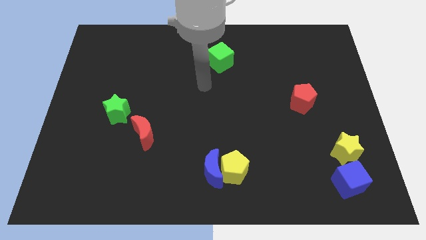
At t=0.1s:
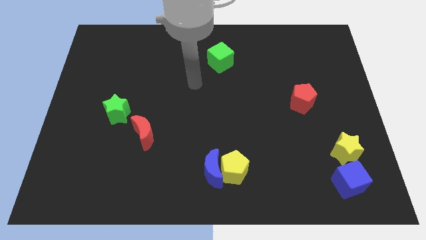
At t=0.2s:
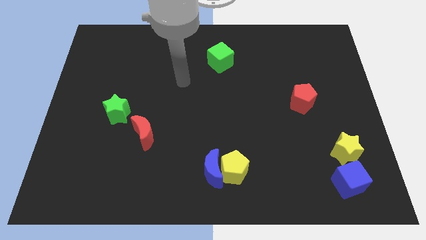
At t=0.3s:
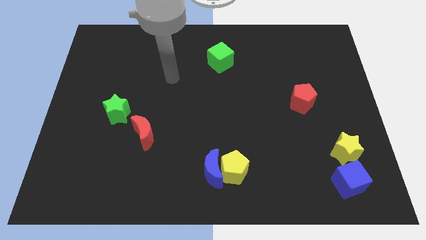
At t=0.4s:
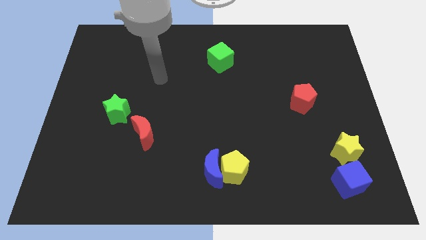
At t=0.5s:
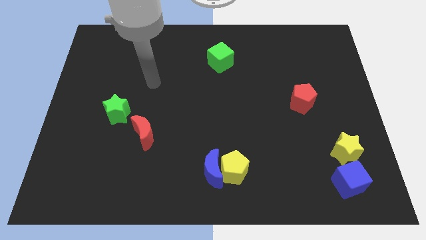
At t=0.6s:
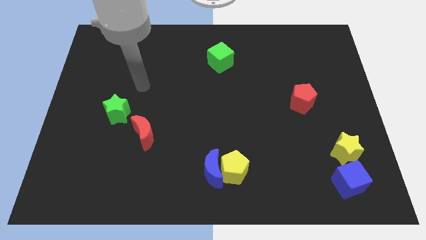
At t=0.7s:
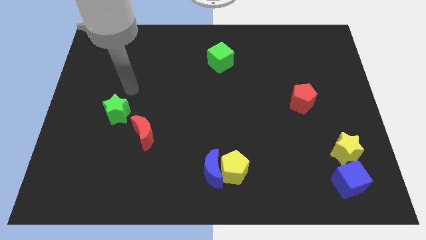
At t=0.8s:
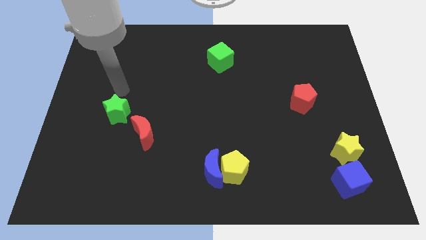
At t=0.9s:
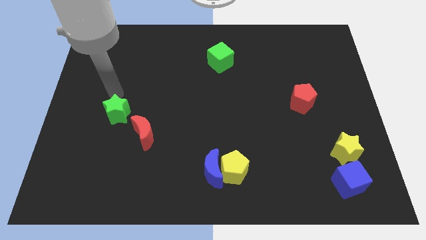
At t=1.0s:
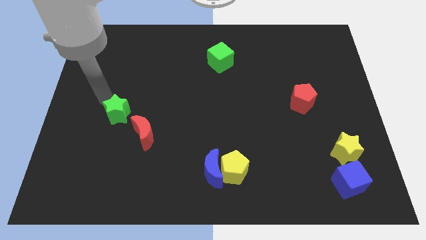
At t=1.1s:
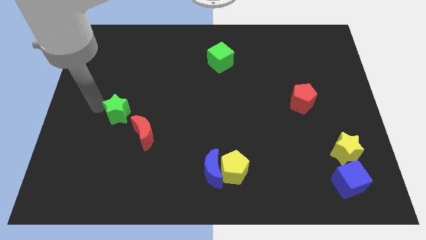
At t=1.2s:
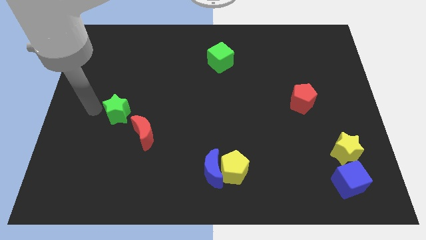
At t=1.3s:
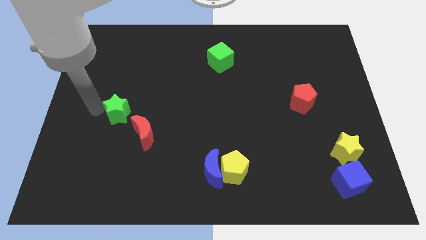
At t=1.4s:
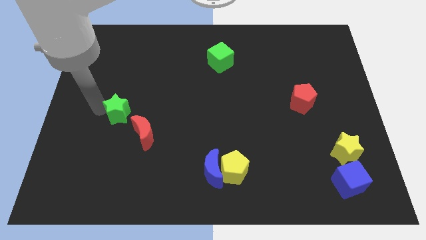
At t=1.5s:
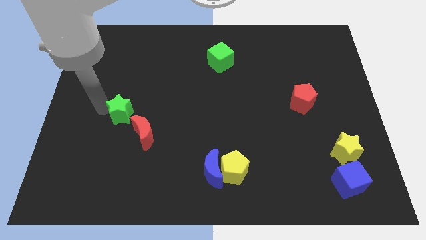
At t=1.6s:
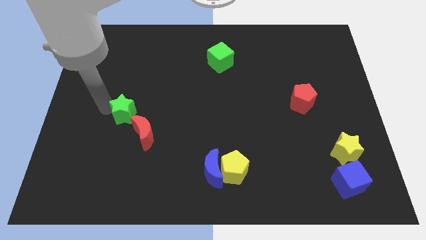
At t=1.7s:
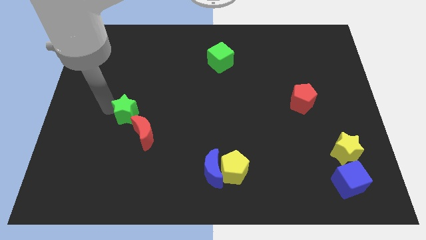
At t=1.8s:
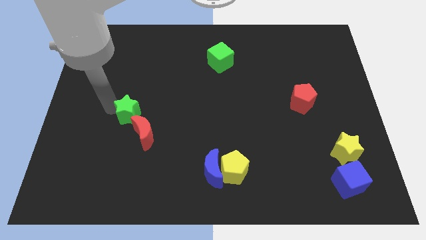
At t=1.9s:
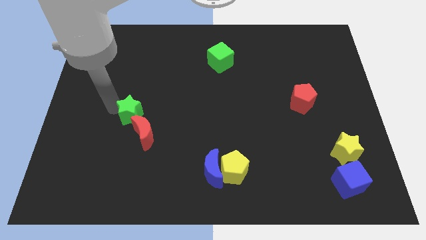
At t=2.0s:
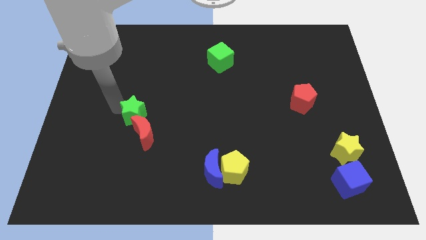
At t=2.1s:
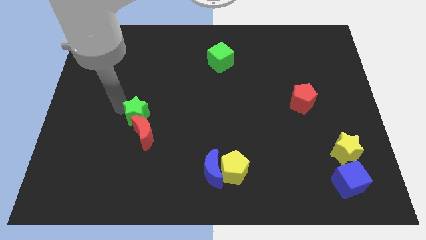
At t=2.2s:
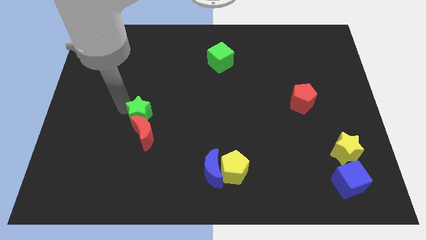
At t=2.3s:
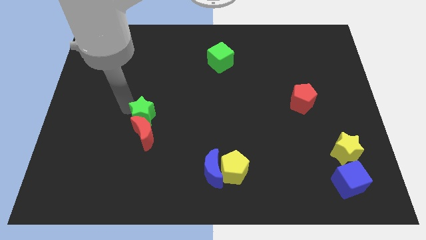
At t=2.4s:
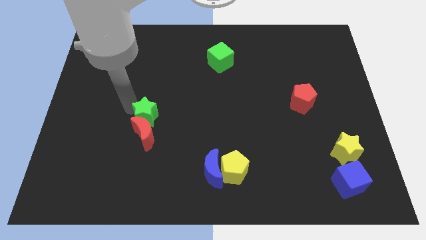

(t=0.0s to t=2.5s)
slide the green star somewhat to the right

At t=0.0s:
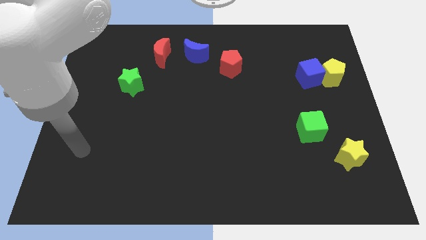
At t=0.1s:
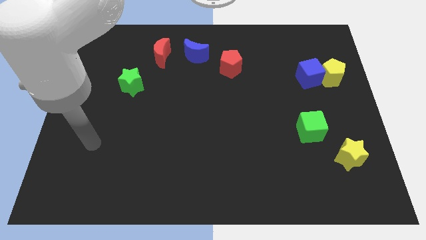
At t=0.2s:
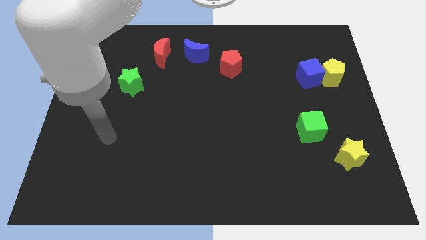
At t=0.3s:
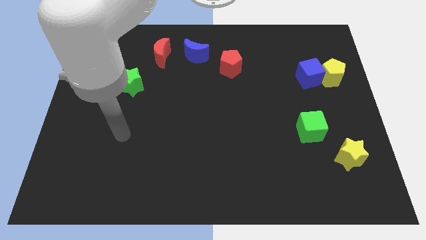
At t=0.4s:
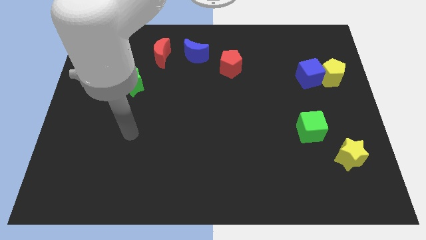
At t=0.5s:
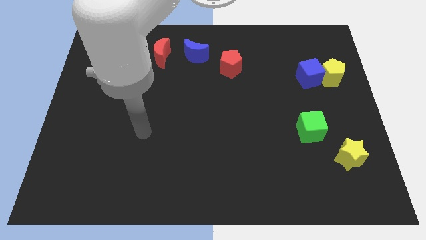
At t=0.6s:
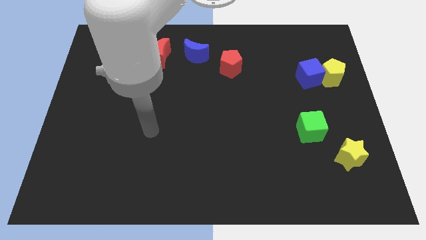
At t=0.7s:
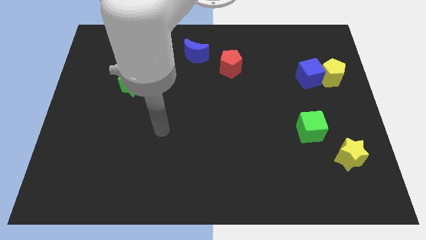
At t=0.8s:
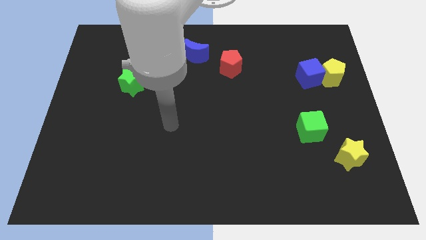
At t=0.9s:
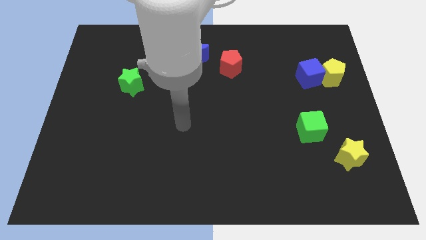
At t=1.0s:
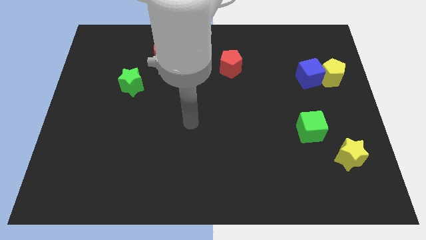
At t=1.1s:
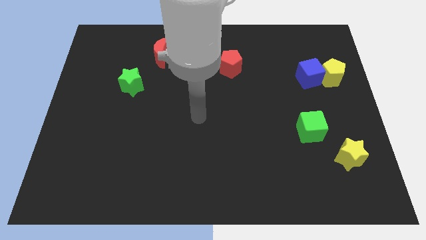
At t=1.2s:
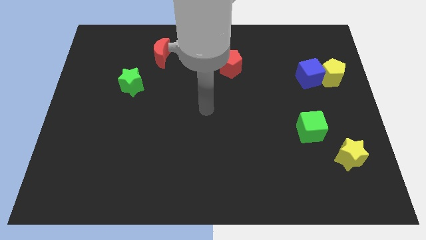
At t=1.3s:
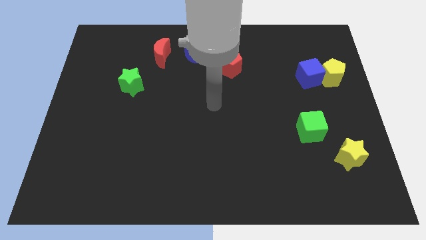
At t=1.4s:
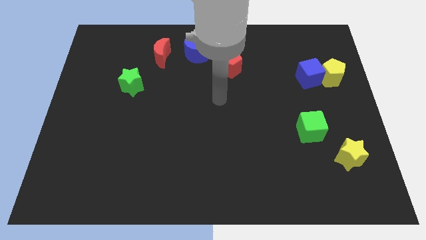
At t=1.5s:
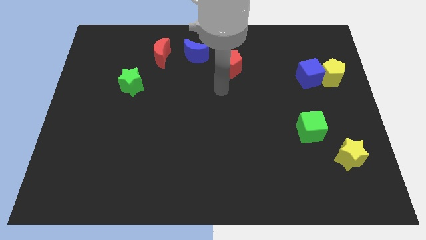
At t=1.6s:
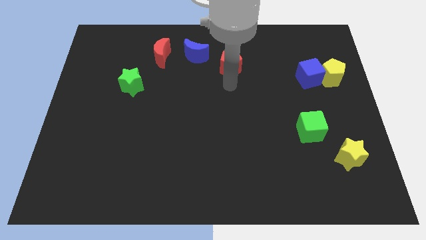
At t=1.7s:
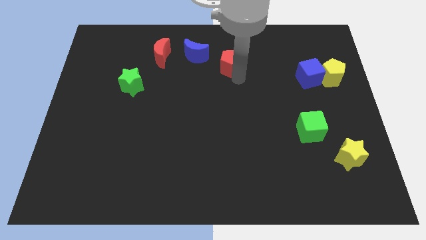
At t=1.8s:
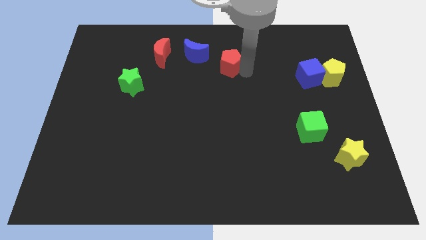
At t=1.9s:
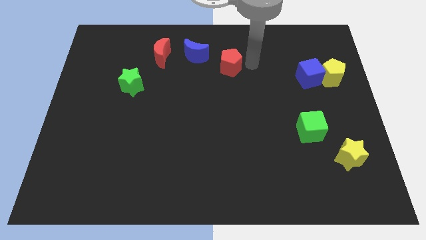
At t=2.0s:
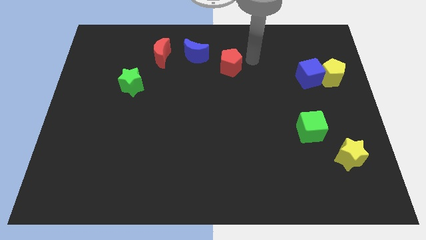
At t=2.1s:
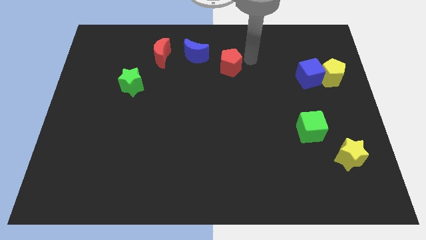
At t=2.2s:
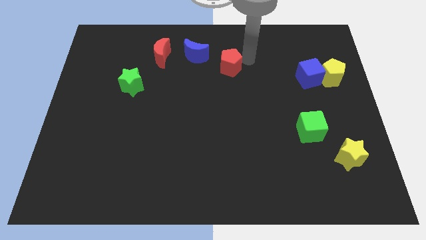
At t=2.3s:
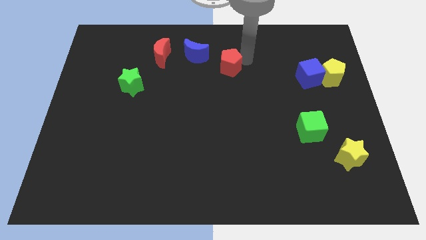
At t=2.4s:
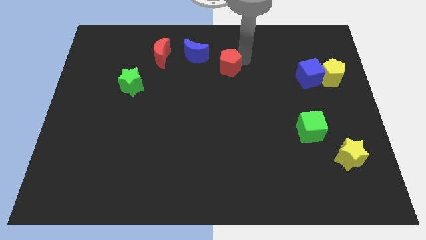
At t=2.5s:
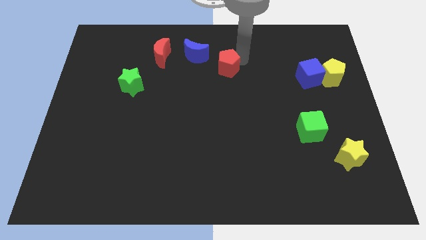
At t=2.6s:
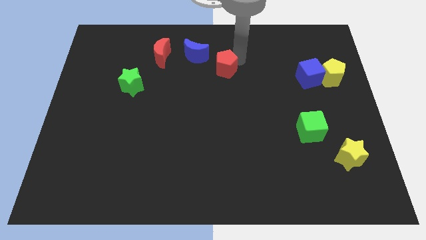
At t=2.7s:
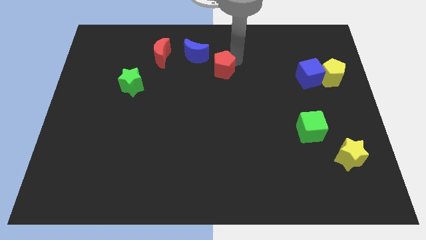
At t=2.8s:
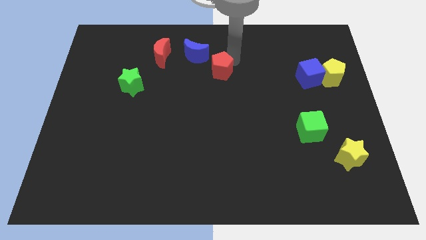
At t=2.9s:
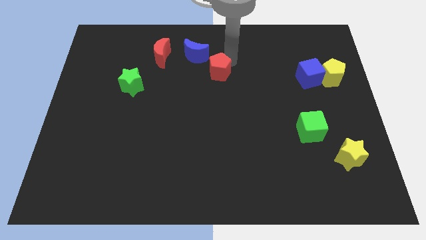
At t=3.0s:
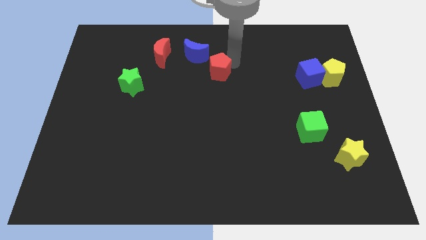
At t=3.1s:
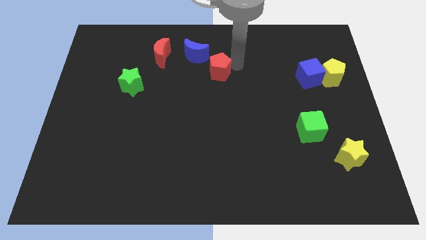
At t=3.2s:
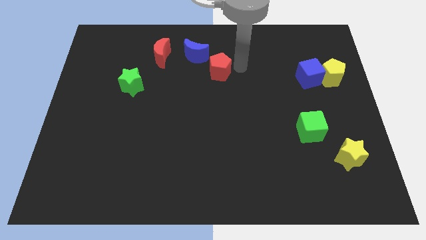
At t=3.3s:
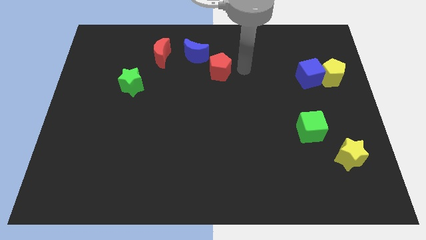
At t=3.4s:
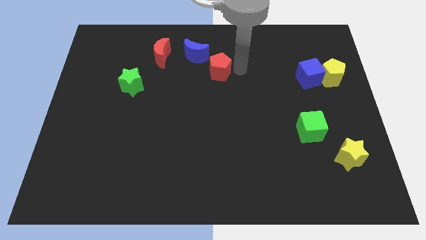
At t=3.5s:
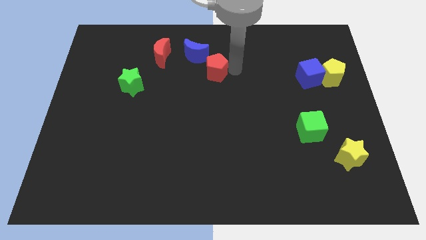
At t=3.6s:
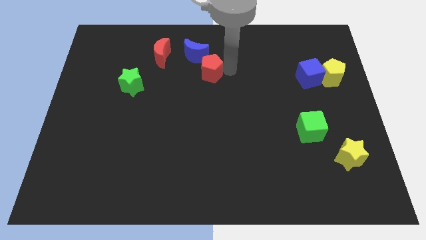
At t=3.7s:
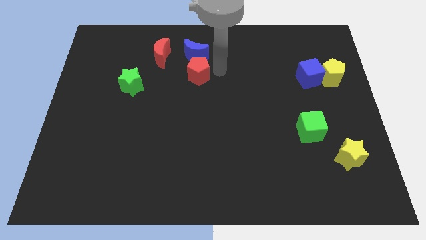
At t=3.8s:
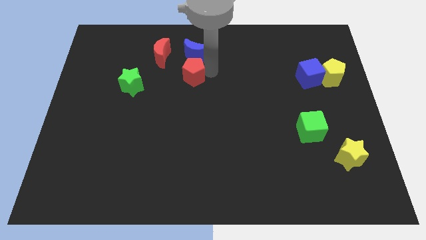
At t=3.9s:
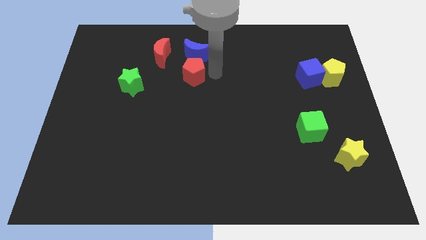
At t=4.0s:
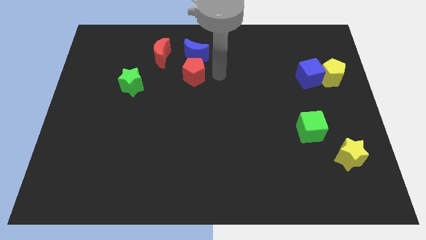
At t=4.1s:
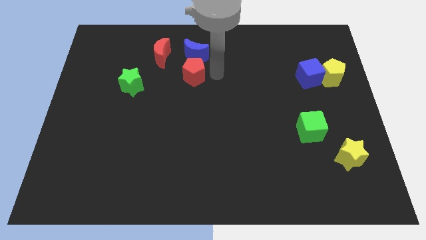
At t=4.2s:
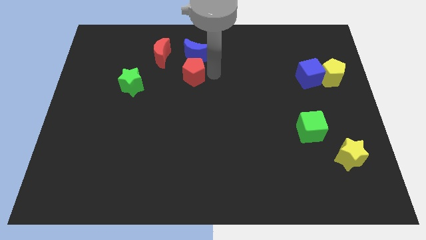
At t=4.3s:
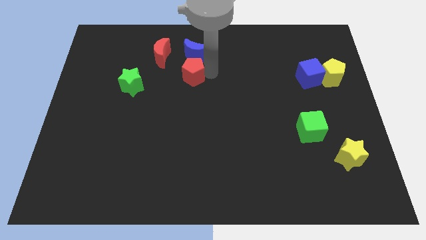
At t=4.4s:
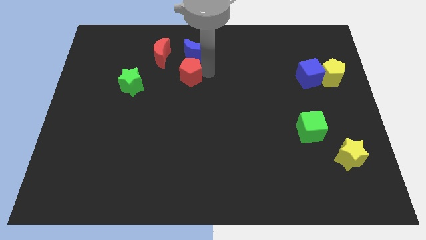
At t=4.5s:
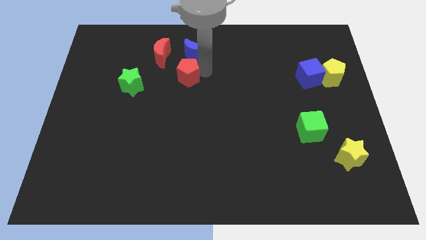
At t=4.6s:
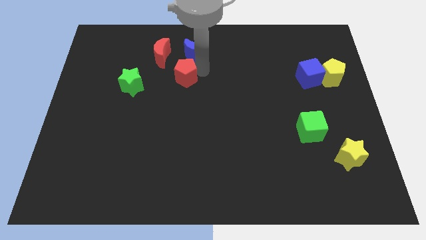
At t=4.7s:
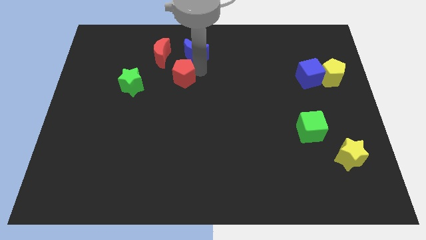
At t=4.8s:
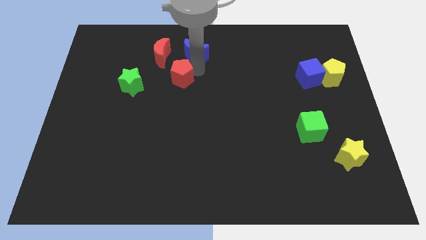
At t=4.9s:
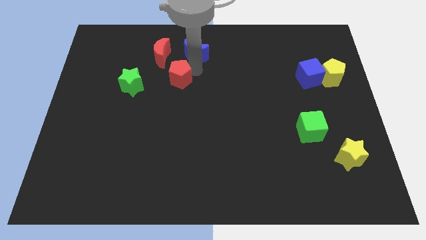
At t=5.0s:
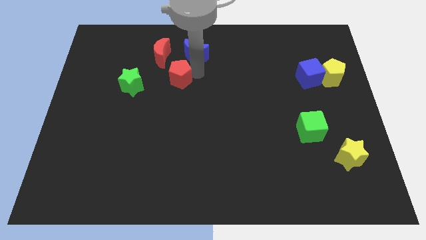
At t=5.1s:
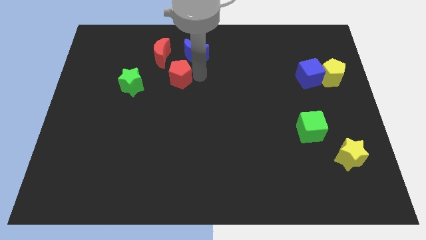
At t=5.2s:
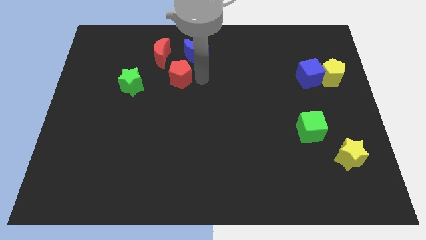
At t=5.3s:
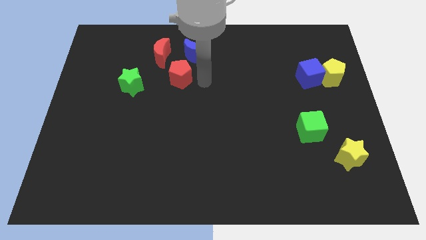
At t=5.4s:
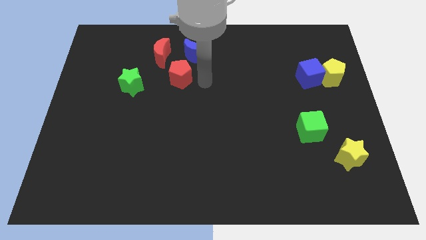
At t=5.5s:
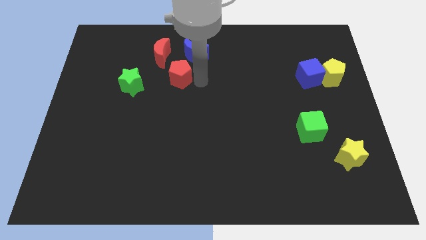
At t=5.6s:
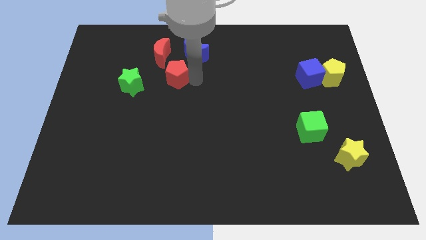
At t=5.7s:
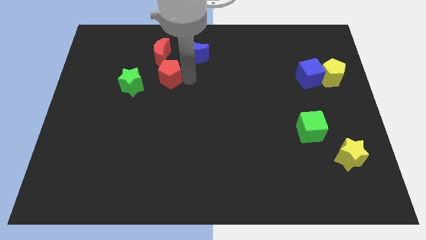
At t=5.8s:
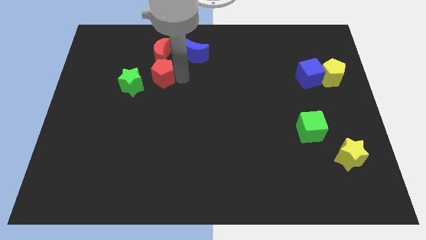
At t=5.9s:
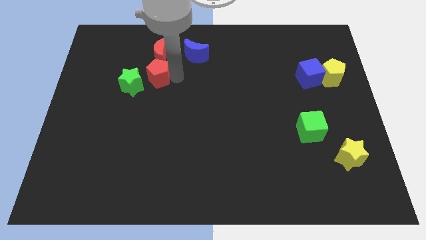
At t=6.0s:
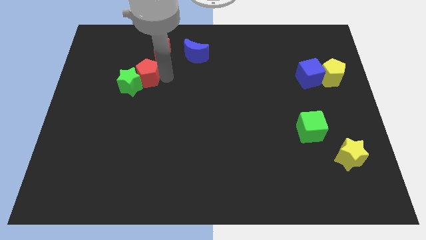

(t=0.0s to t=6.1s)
move the red pentagon to the left
